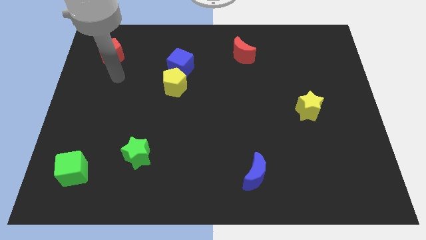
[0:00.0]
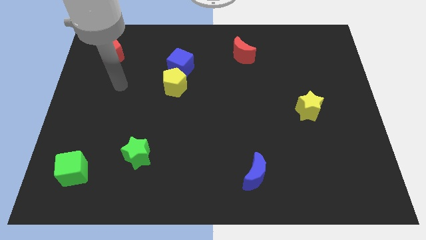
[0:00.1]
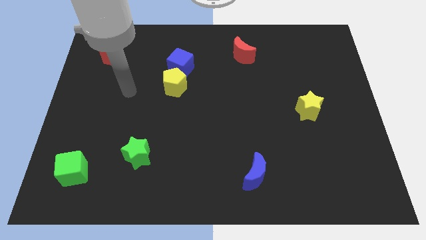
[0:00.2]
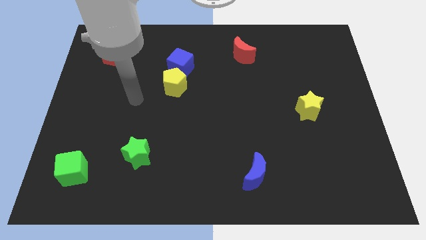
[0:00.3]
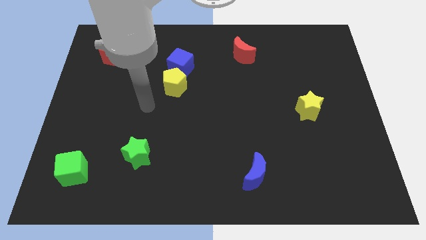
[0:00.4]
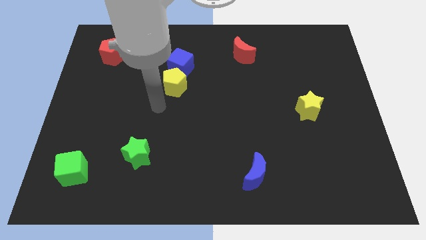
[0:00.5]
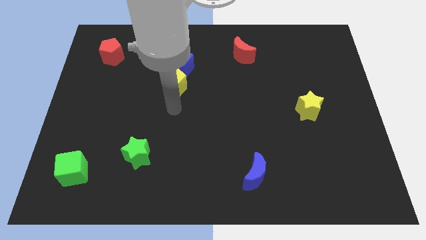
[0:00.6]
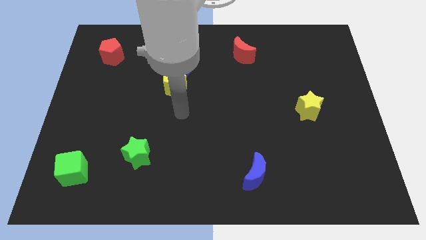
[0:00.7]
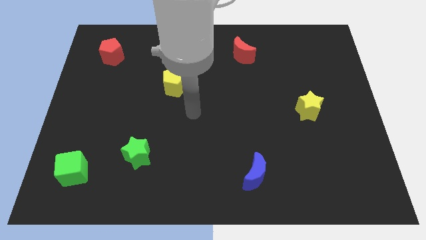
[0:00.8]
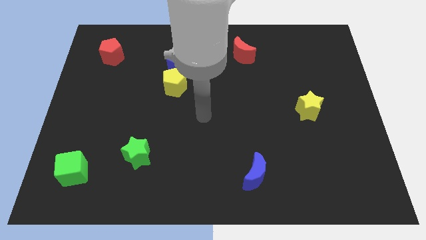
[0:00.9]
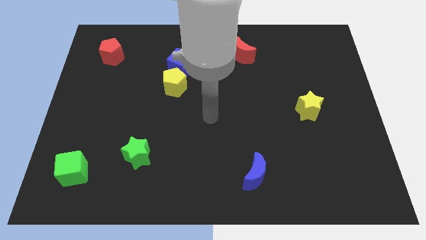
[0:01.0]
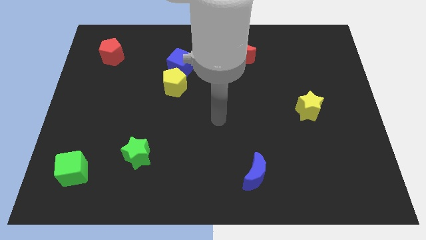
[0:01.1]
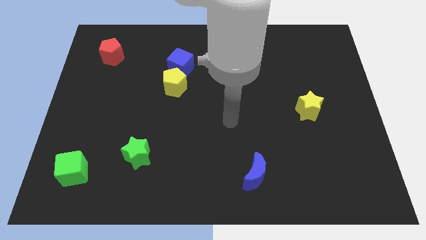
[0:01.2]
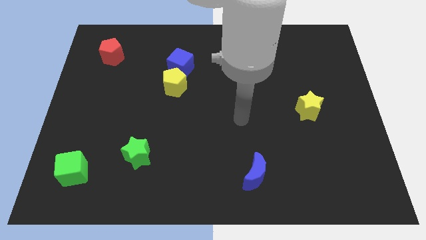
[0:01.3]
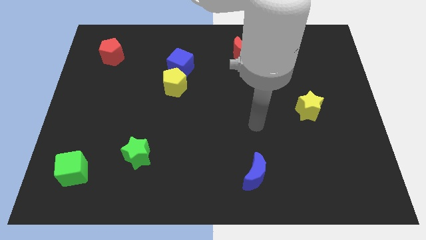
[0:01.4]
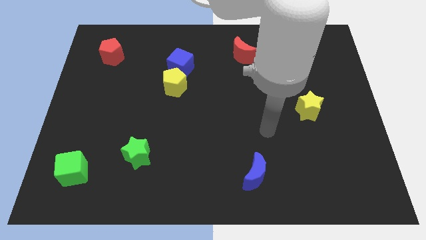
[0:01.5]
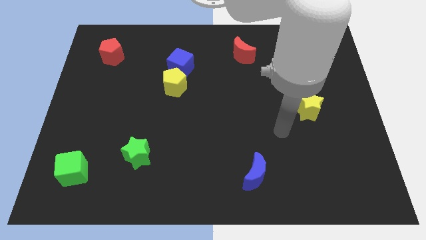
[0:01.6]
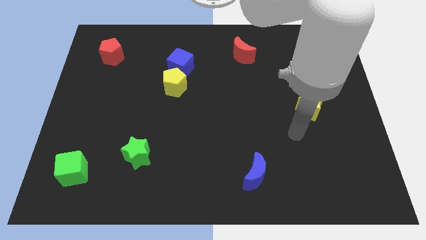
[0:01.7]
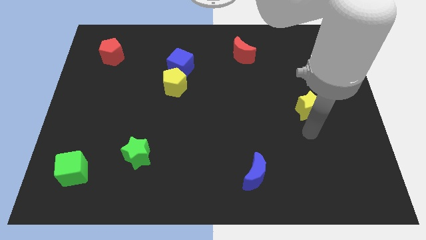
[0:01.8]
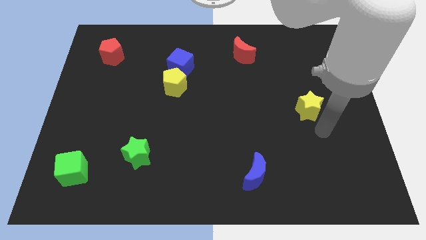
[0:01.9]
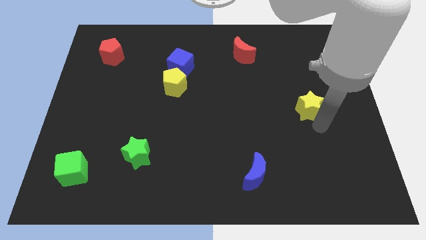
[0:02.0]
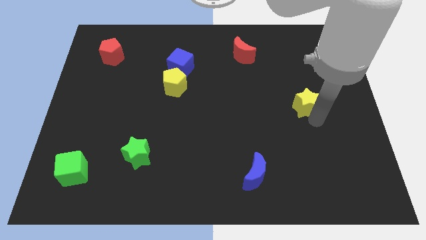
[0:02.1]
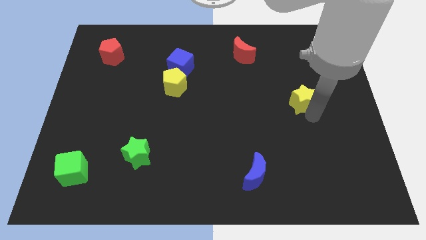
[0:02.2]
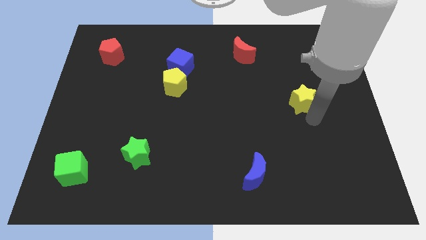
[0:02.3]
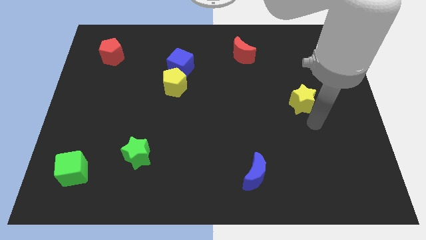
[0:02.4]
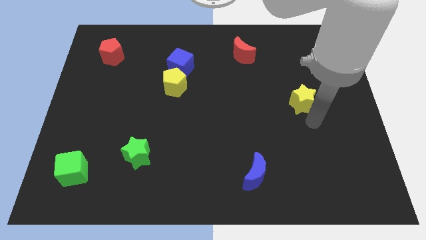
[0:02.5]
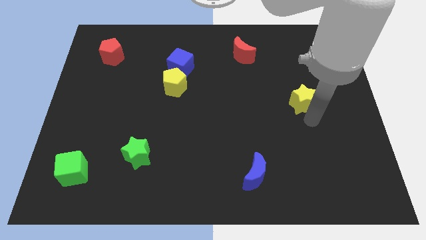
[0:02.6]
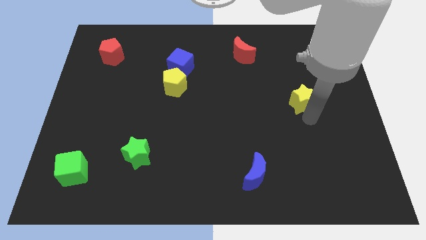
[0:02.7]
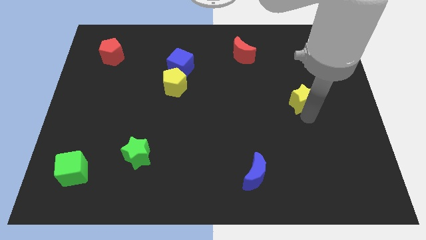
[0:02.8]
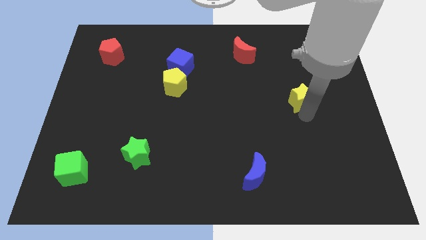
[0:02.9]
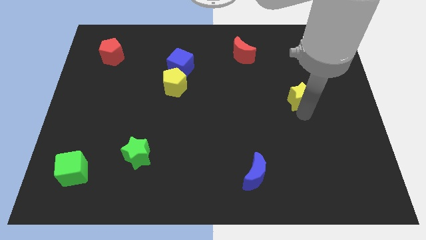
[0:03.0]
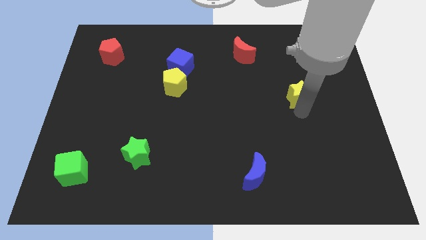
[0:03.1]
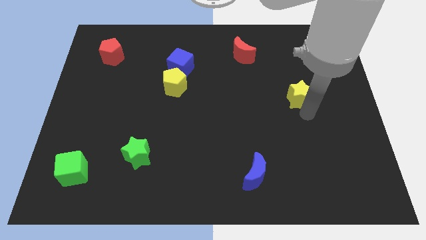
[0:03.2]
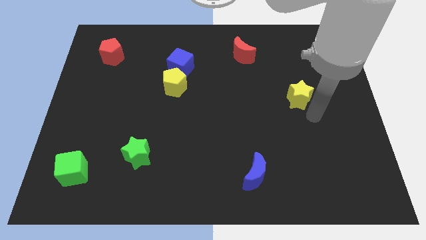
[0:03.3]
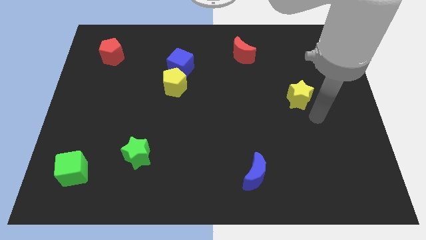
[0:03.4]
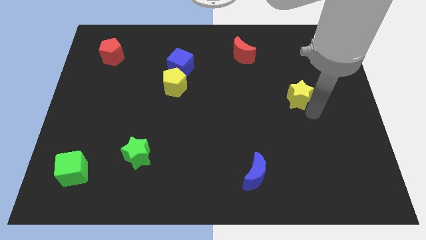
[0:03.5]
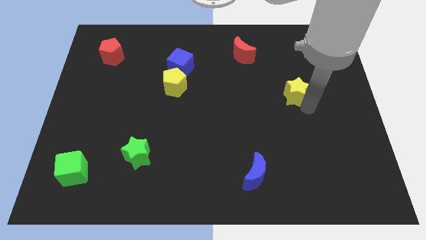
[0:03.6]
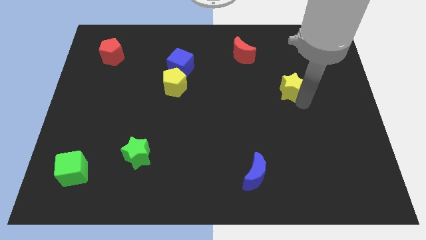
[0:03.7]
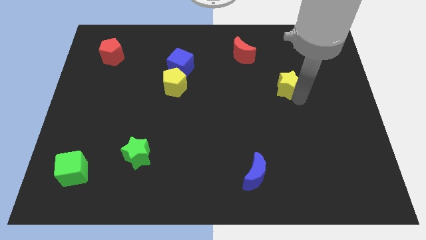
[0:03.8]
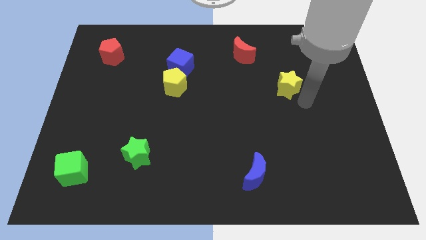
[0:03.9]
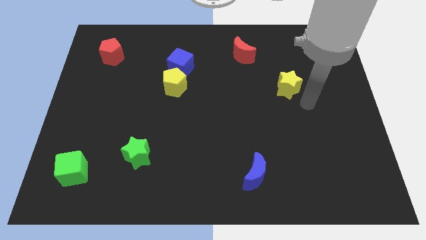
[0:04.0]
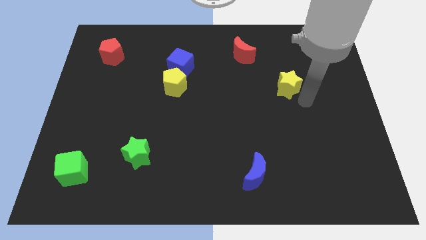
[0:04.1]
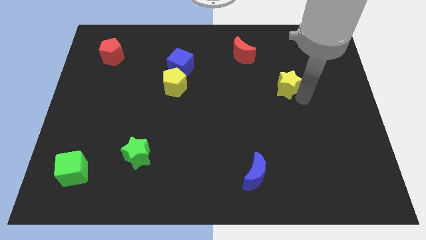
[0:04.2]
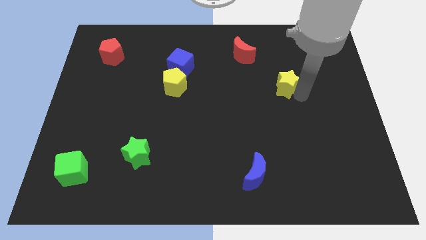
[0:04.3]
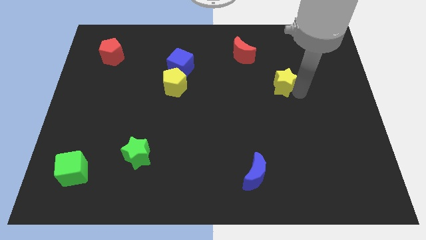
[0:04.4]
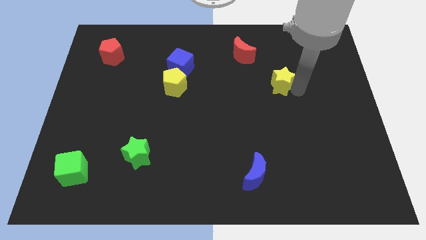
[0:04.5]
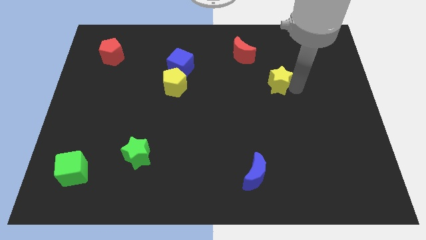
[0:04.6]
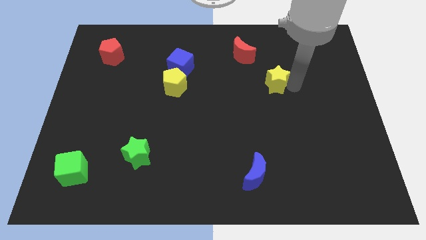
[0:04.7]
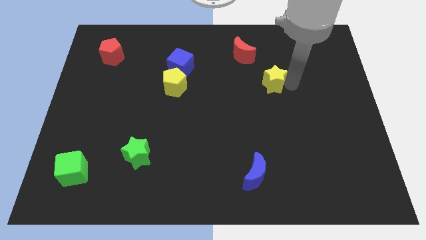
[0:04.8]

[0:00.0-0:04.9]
push the yellow star diagonally down and to the right of the red moon

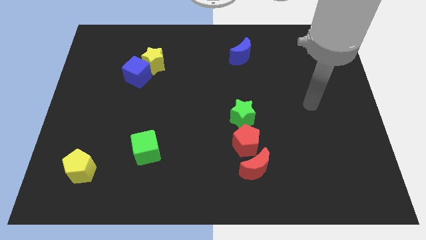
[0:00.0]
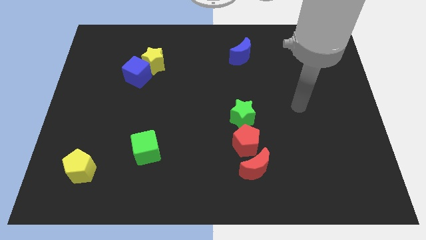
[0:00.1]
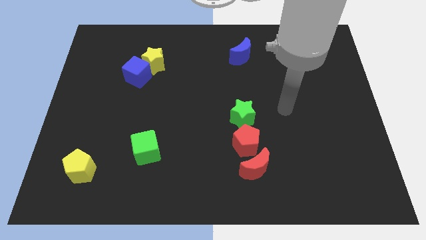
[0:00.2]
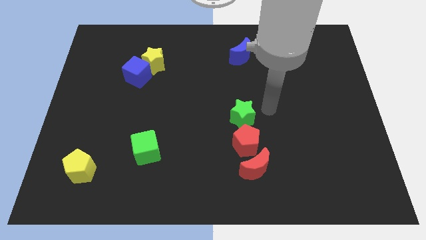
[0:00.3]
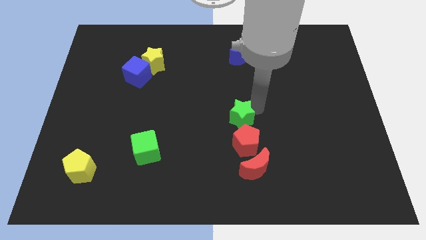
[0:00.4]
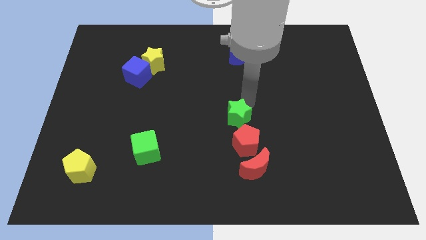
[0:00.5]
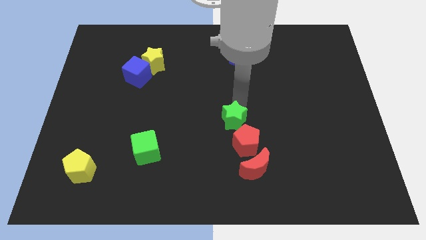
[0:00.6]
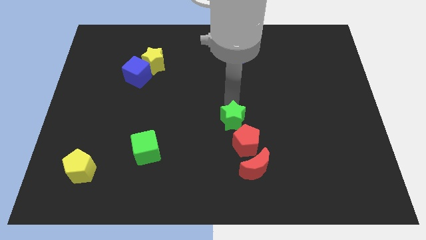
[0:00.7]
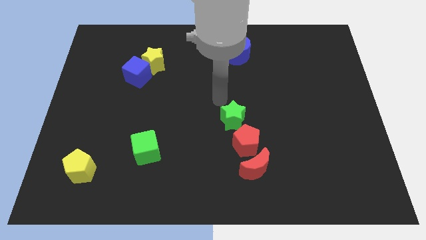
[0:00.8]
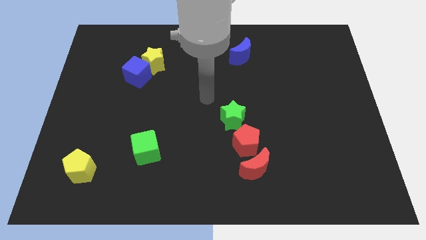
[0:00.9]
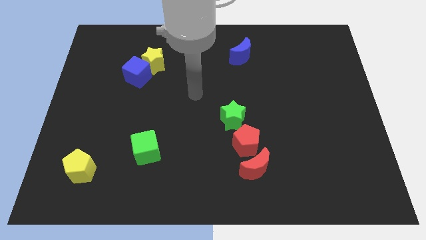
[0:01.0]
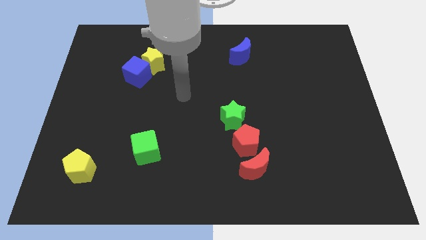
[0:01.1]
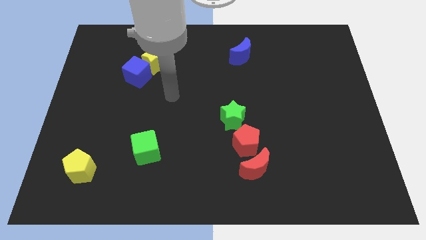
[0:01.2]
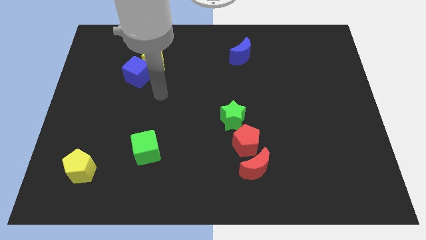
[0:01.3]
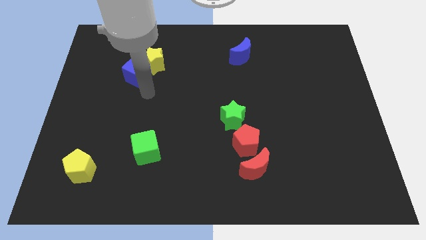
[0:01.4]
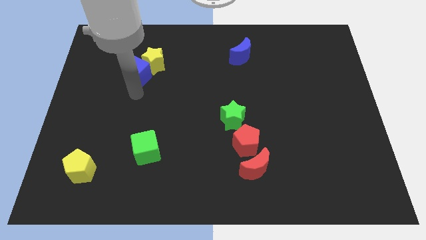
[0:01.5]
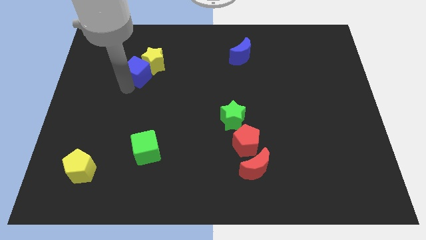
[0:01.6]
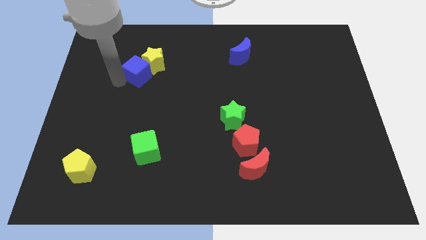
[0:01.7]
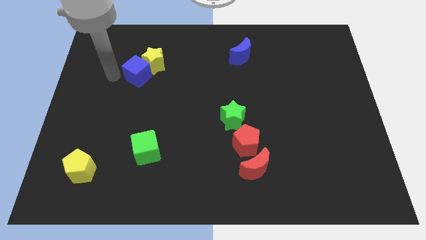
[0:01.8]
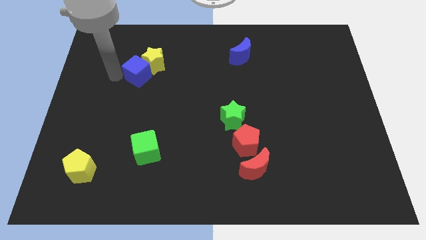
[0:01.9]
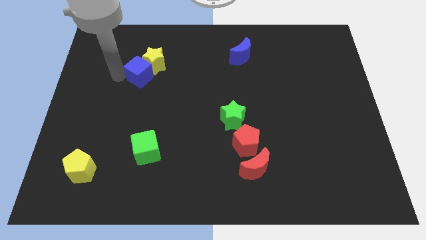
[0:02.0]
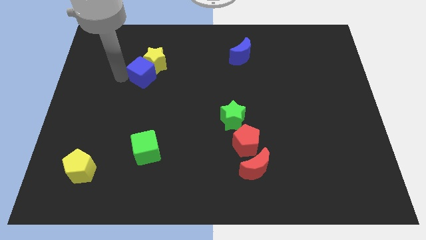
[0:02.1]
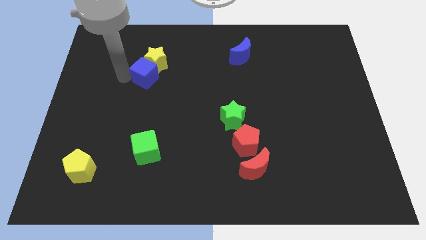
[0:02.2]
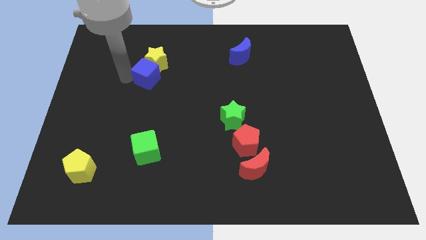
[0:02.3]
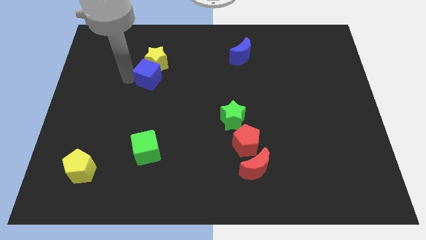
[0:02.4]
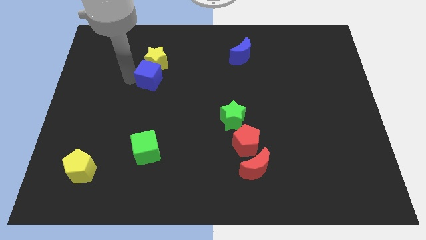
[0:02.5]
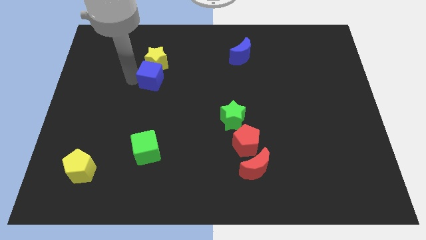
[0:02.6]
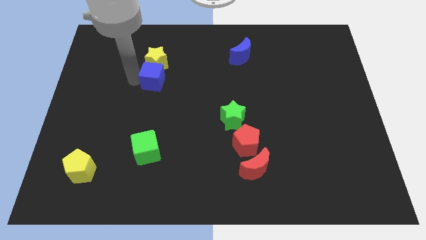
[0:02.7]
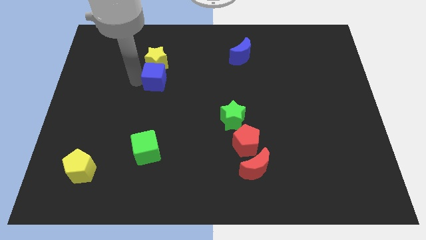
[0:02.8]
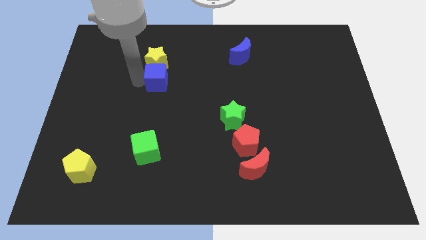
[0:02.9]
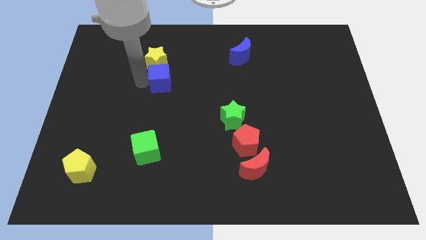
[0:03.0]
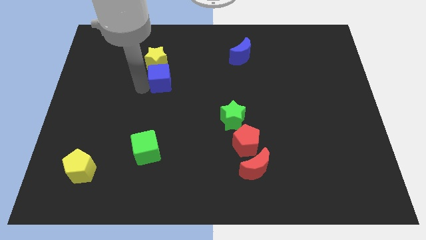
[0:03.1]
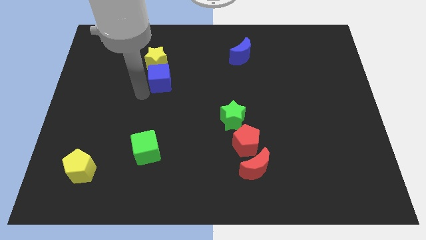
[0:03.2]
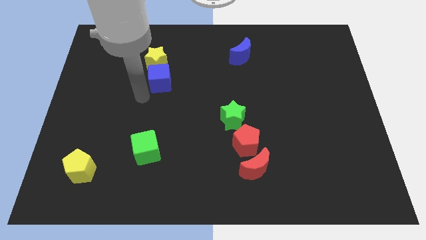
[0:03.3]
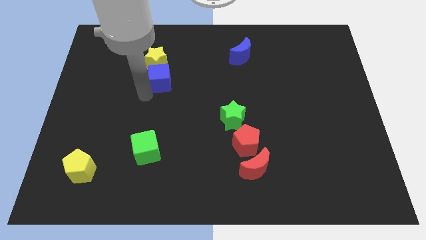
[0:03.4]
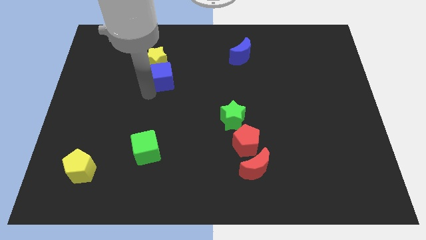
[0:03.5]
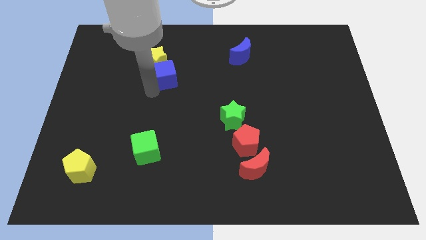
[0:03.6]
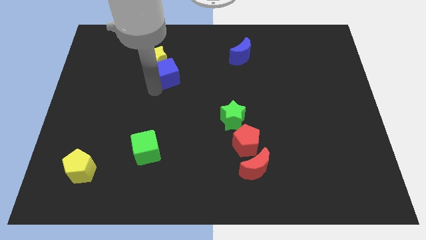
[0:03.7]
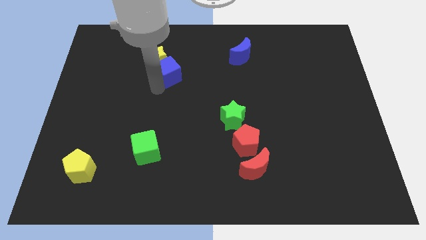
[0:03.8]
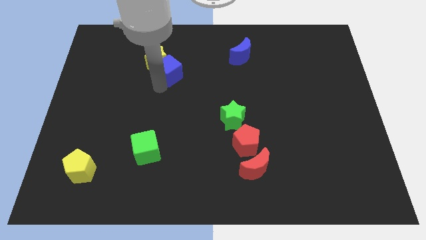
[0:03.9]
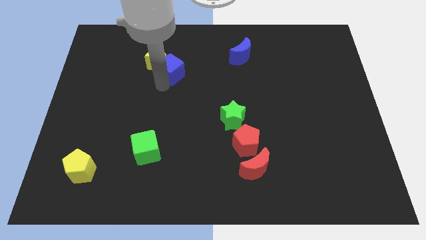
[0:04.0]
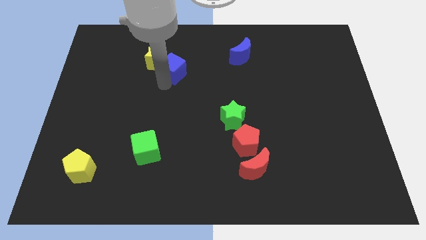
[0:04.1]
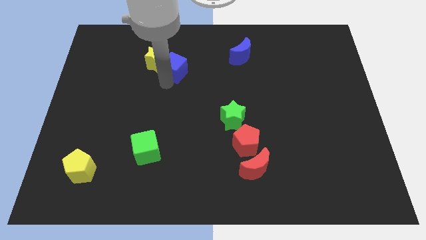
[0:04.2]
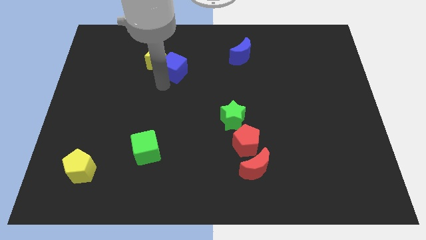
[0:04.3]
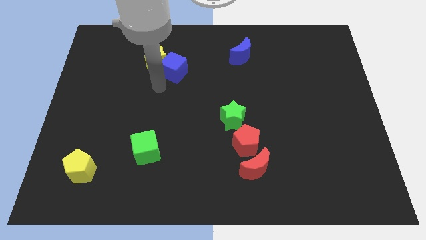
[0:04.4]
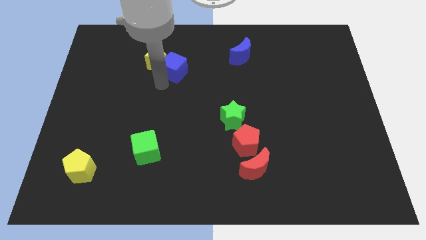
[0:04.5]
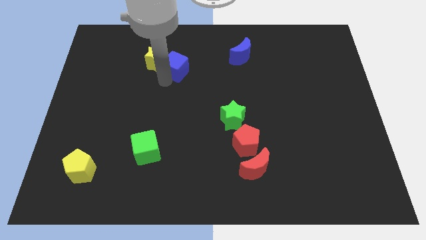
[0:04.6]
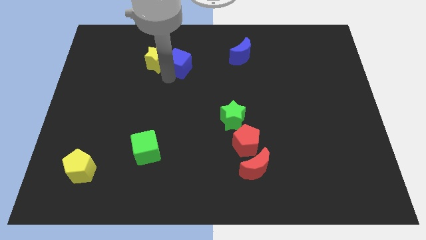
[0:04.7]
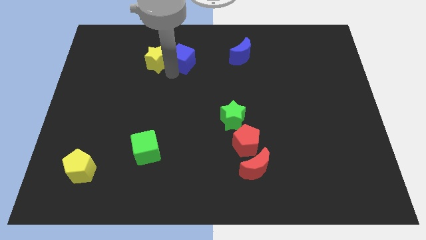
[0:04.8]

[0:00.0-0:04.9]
push the blue cube left of the blue moon
